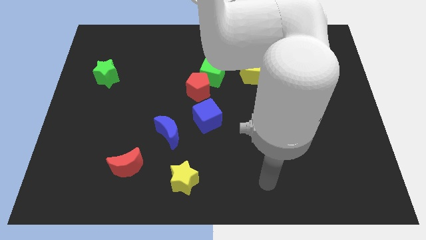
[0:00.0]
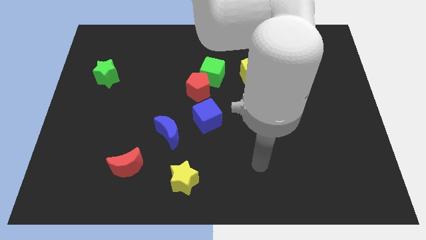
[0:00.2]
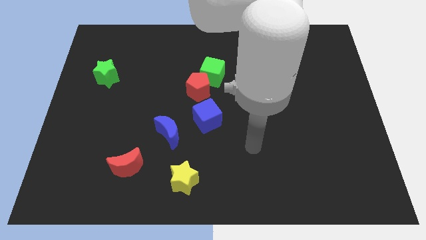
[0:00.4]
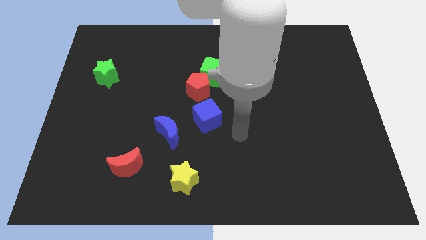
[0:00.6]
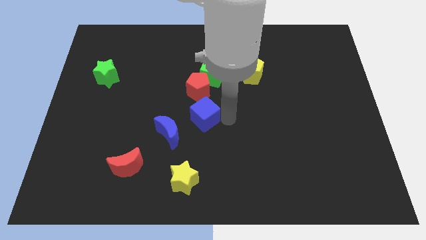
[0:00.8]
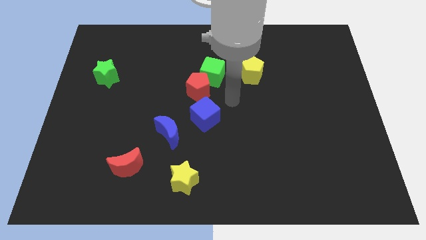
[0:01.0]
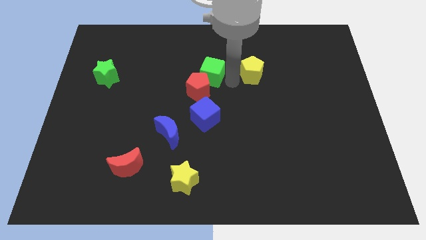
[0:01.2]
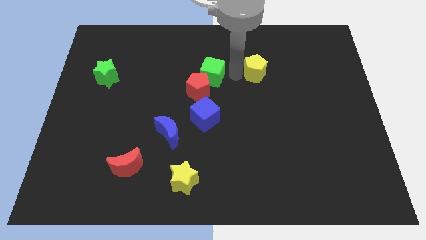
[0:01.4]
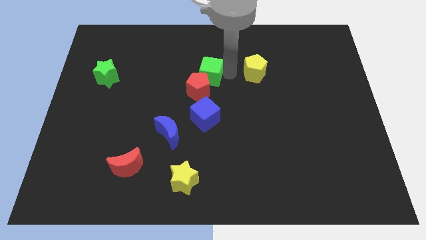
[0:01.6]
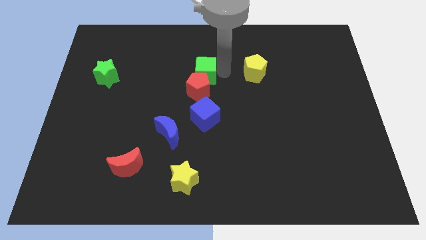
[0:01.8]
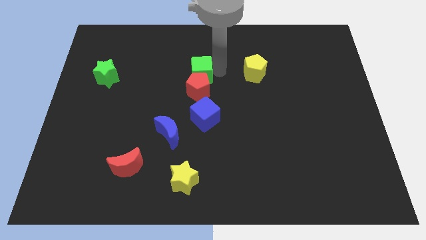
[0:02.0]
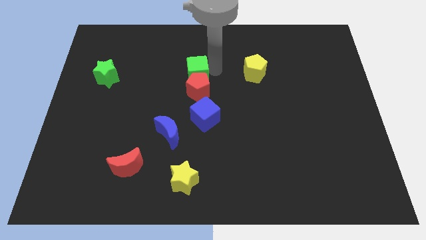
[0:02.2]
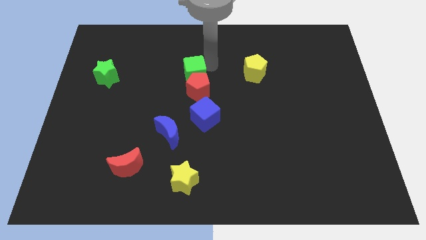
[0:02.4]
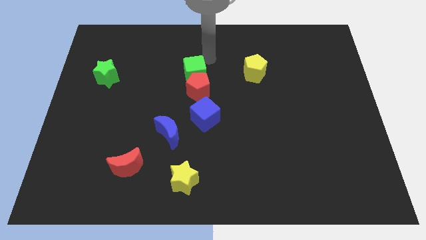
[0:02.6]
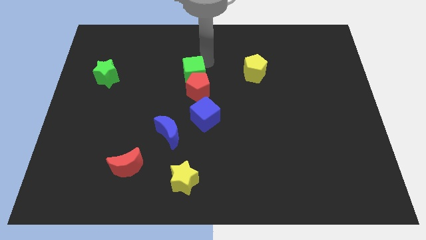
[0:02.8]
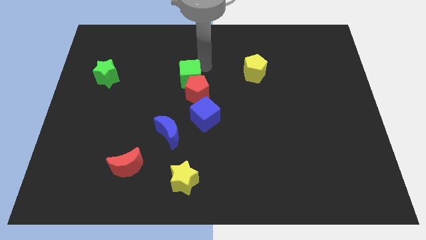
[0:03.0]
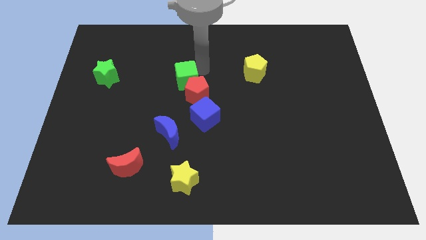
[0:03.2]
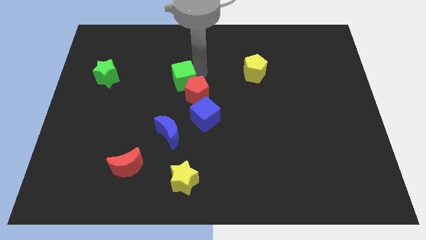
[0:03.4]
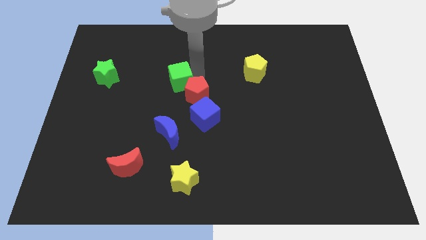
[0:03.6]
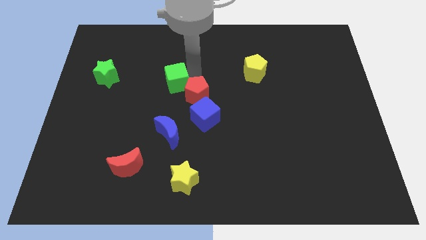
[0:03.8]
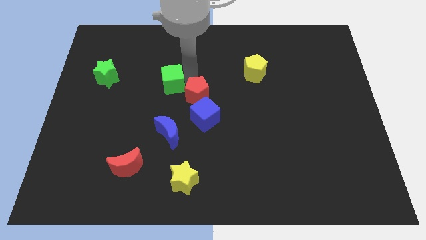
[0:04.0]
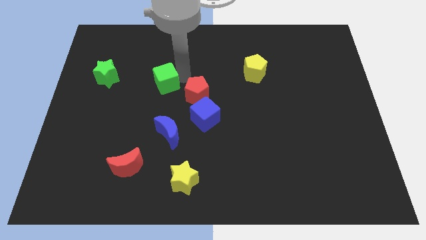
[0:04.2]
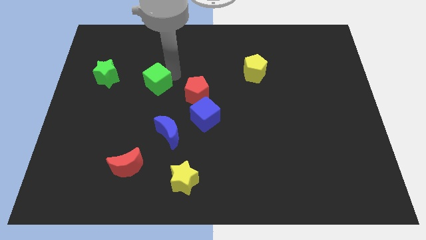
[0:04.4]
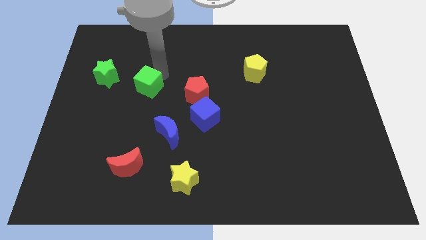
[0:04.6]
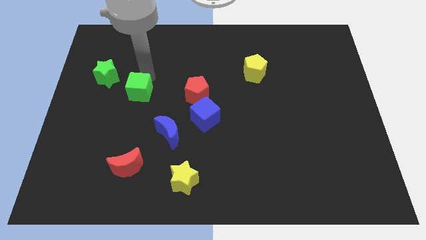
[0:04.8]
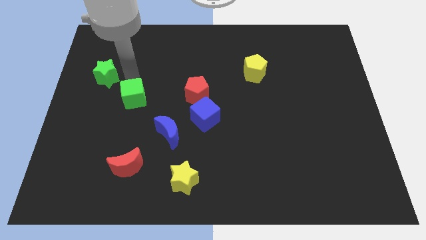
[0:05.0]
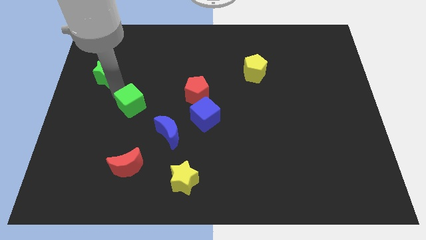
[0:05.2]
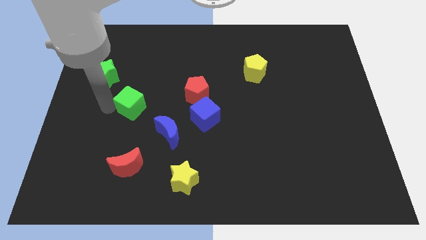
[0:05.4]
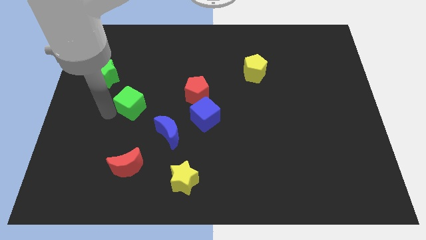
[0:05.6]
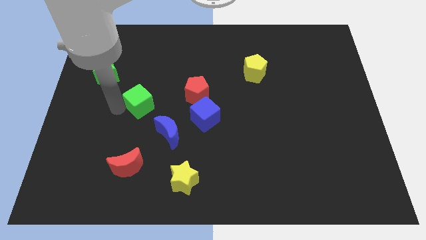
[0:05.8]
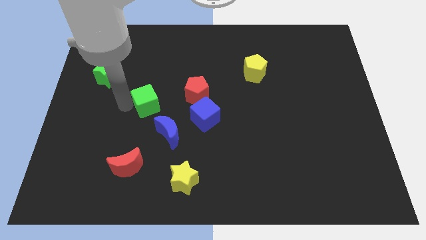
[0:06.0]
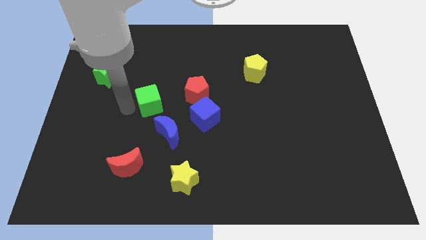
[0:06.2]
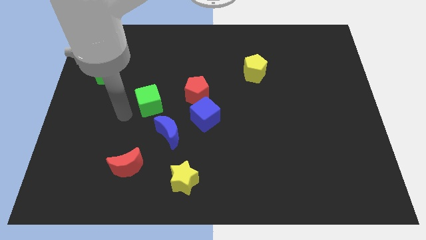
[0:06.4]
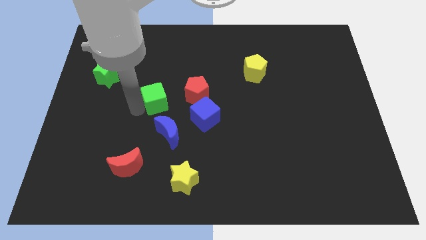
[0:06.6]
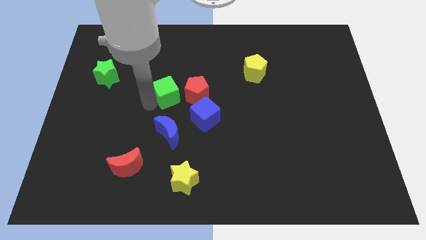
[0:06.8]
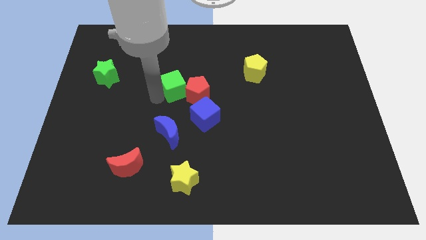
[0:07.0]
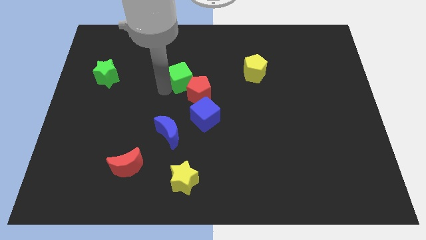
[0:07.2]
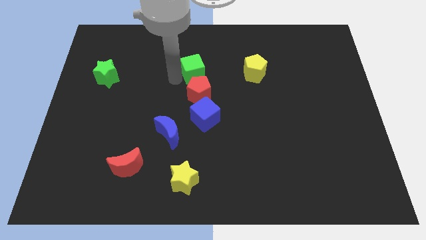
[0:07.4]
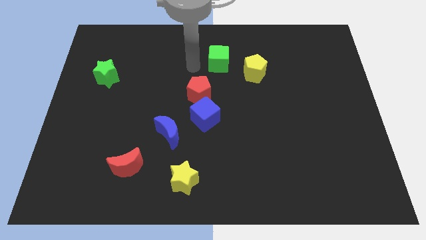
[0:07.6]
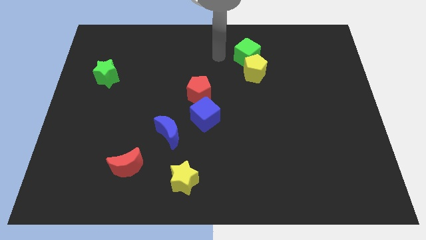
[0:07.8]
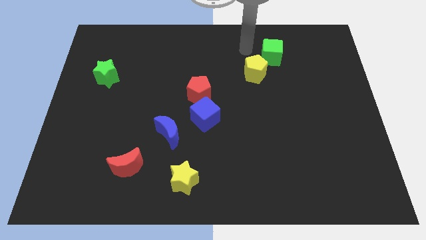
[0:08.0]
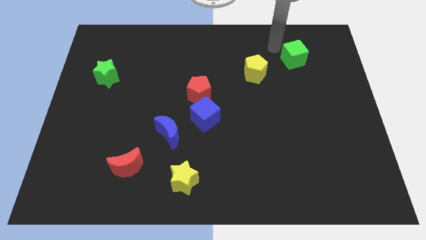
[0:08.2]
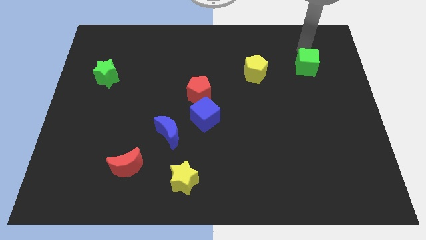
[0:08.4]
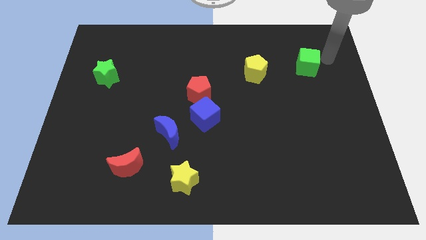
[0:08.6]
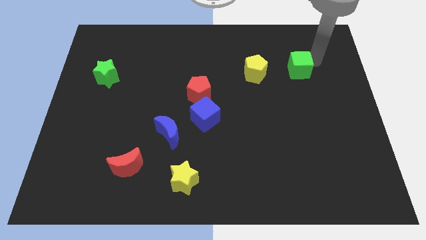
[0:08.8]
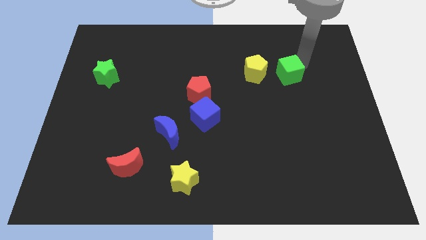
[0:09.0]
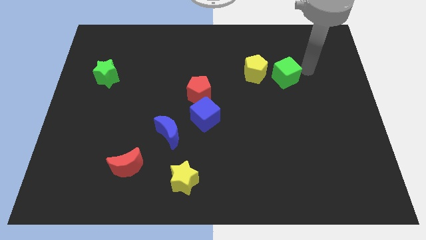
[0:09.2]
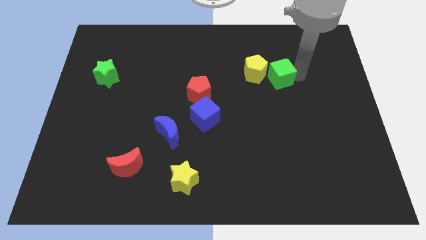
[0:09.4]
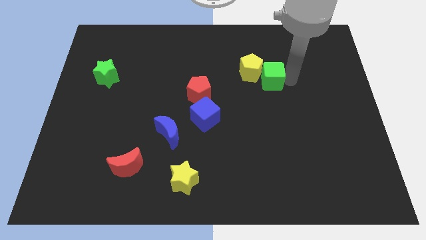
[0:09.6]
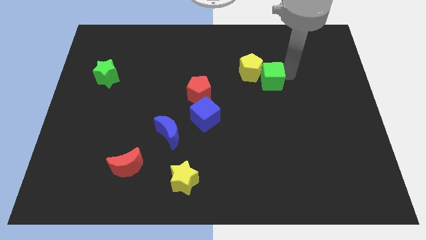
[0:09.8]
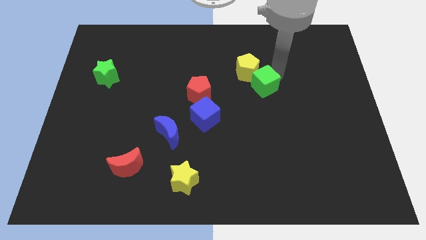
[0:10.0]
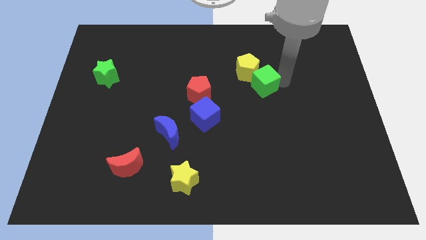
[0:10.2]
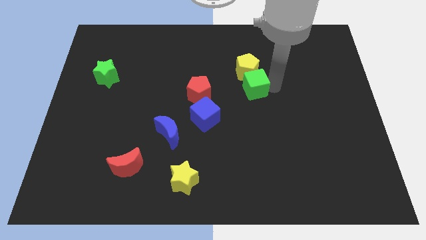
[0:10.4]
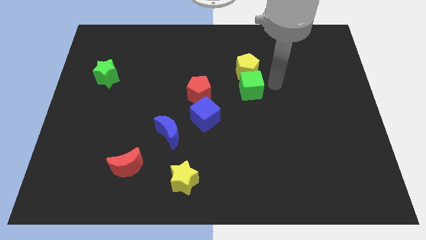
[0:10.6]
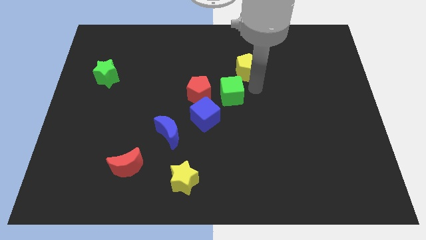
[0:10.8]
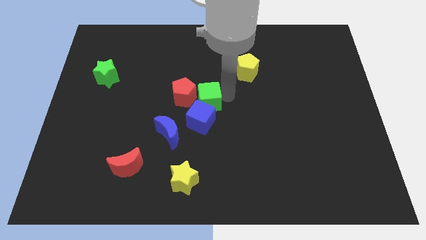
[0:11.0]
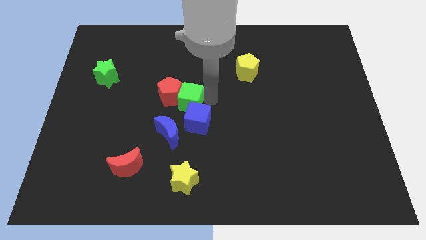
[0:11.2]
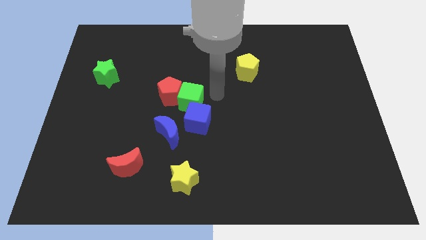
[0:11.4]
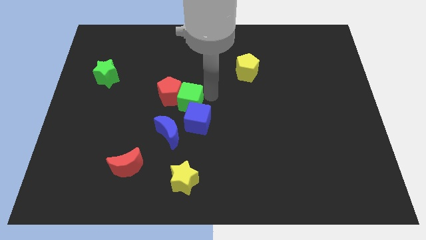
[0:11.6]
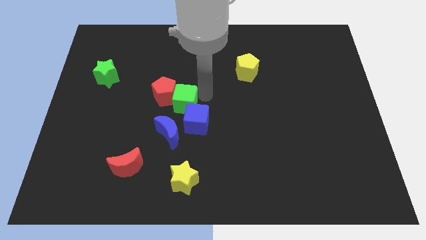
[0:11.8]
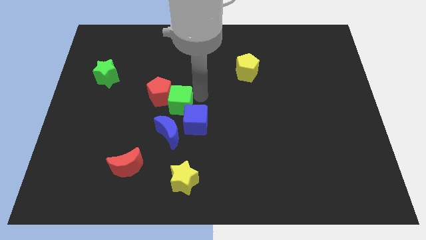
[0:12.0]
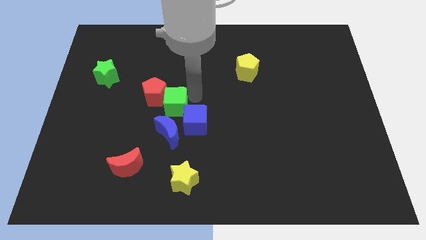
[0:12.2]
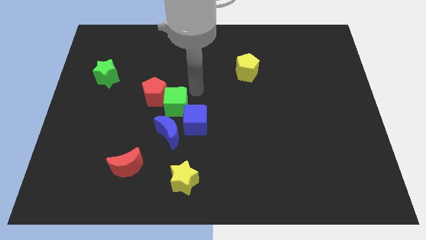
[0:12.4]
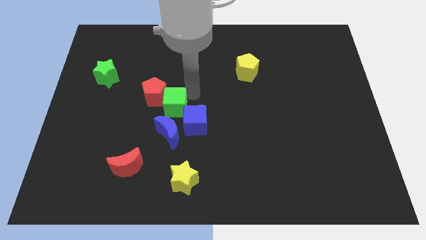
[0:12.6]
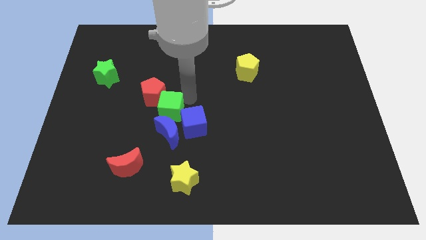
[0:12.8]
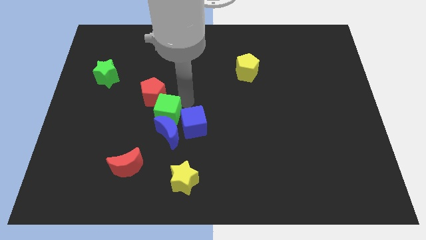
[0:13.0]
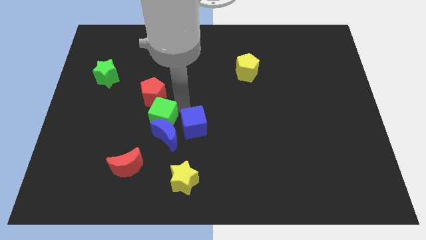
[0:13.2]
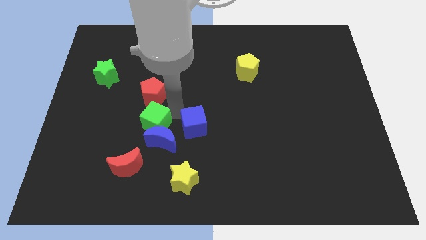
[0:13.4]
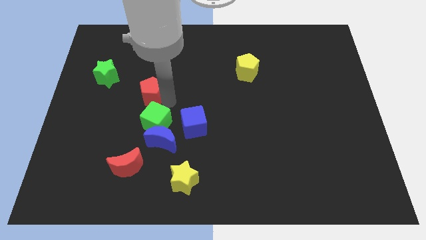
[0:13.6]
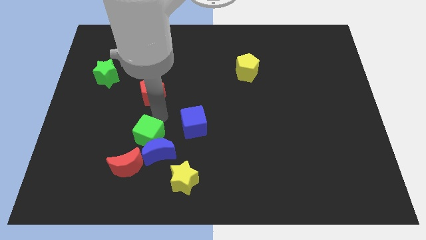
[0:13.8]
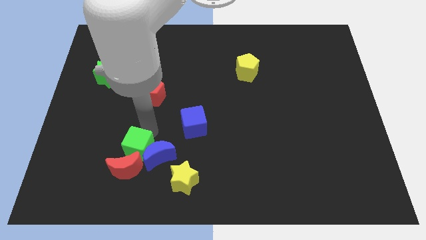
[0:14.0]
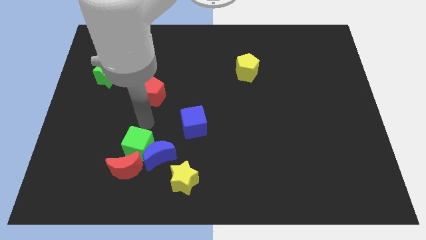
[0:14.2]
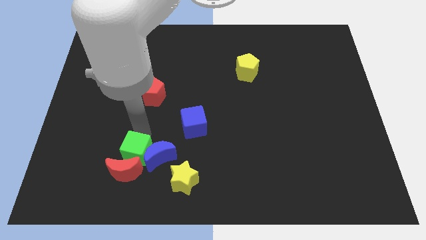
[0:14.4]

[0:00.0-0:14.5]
put the green cube to the bottom left of the blue moon
